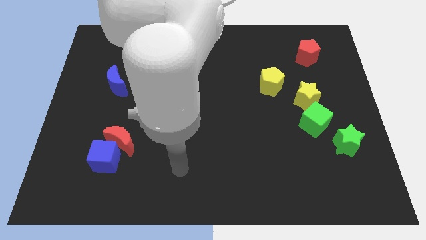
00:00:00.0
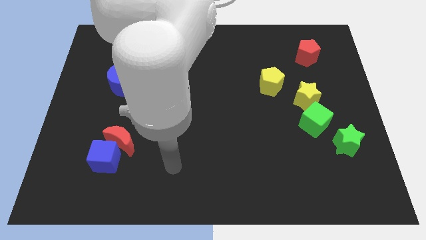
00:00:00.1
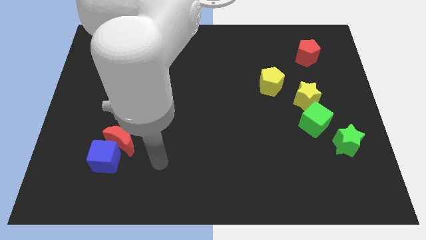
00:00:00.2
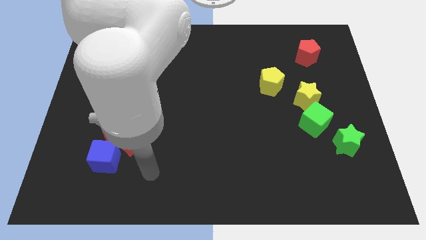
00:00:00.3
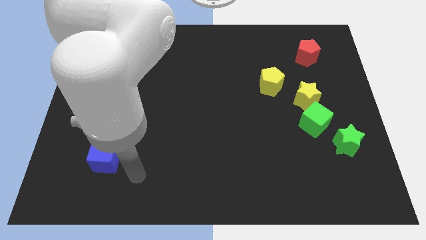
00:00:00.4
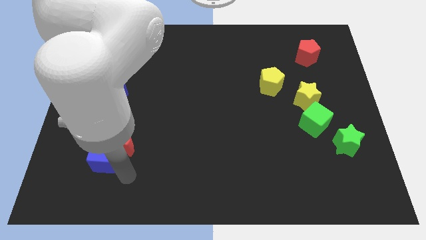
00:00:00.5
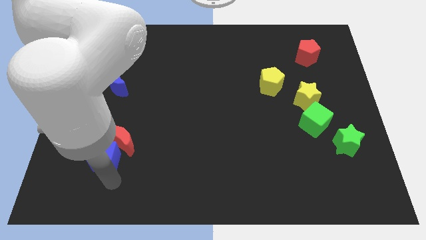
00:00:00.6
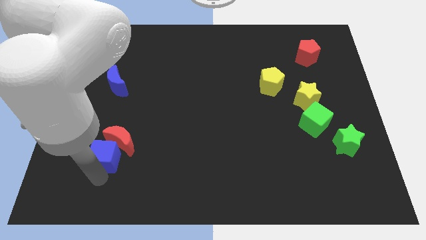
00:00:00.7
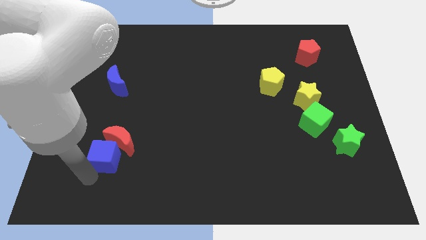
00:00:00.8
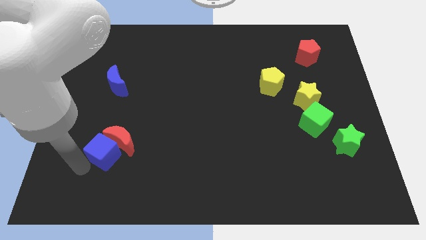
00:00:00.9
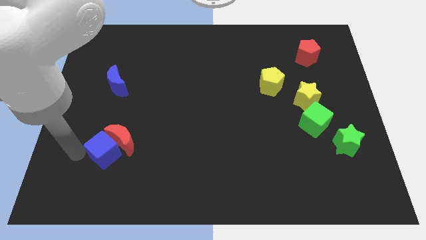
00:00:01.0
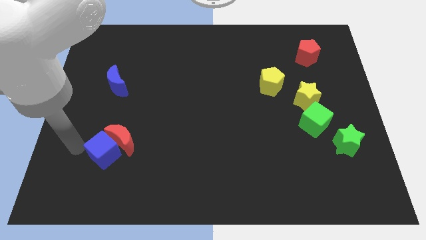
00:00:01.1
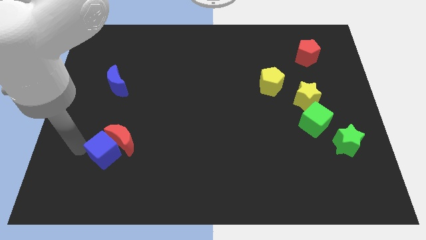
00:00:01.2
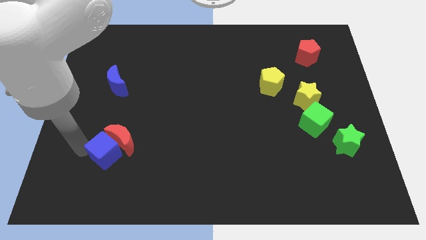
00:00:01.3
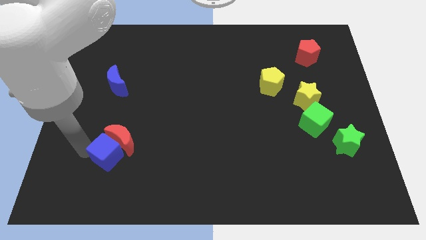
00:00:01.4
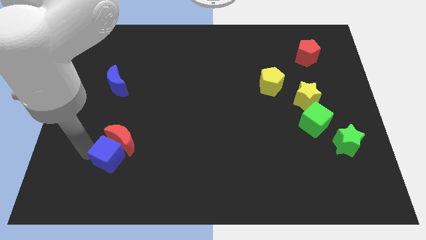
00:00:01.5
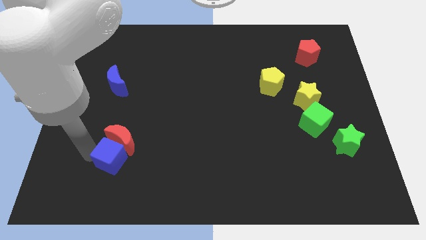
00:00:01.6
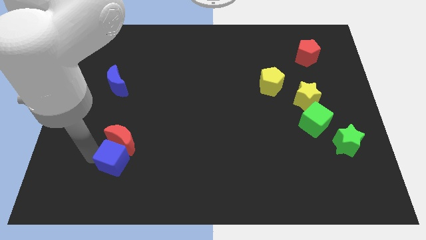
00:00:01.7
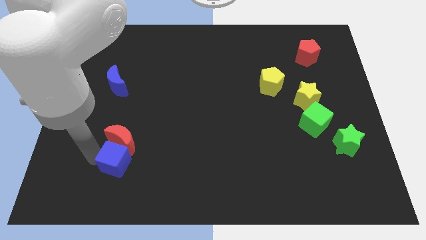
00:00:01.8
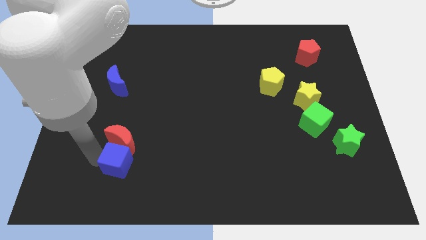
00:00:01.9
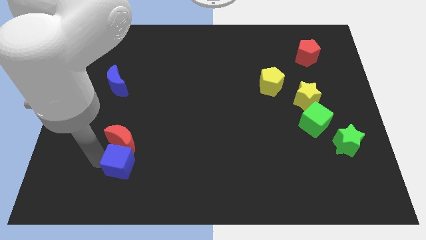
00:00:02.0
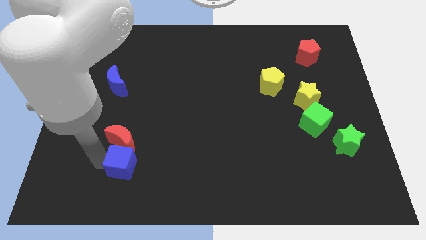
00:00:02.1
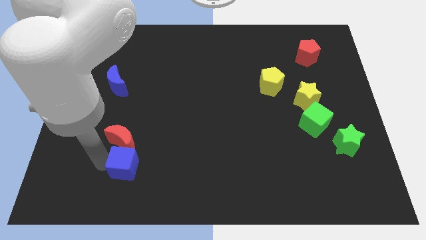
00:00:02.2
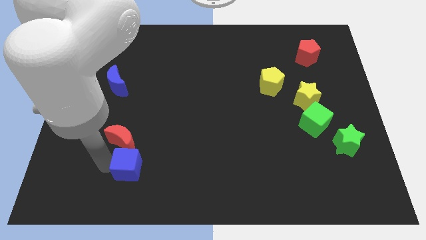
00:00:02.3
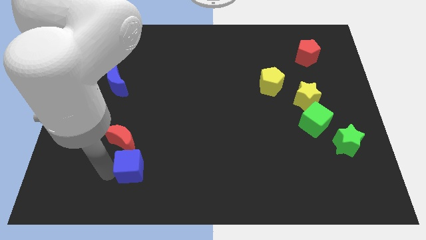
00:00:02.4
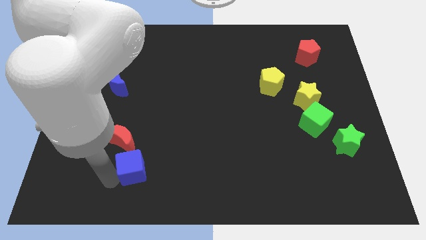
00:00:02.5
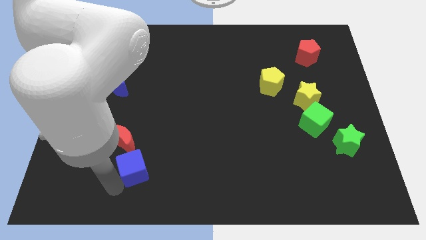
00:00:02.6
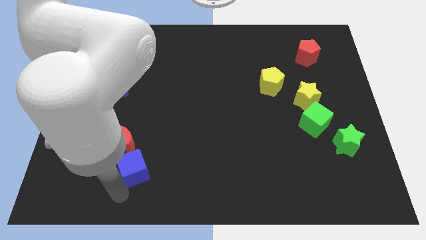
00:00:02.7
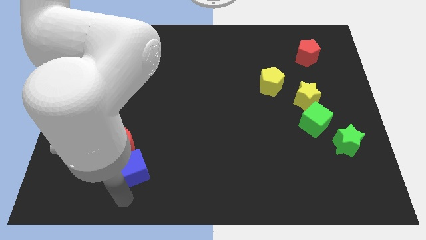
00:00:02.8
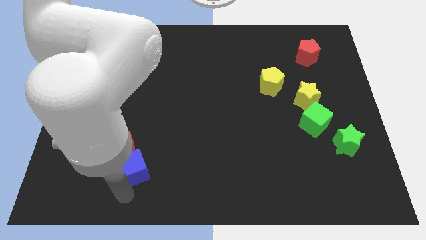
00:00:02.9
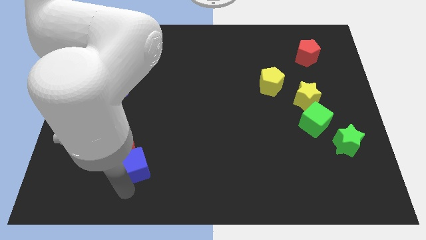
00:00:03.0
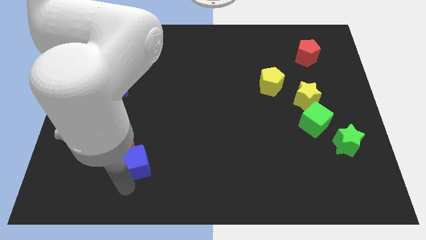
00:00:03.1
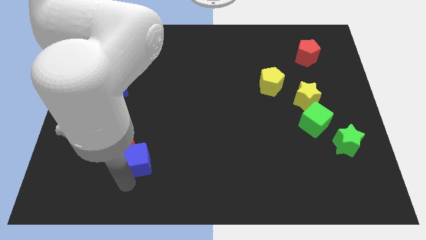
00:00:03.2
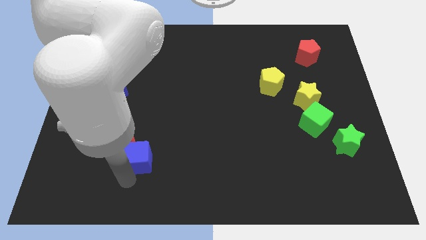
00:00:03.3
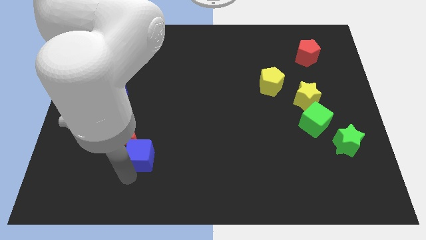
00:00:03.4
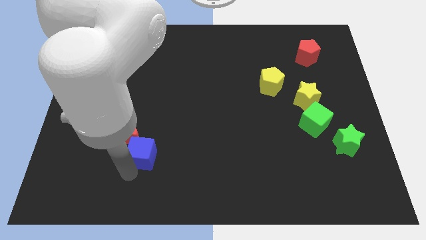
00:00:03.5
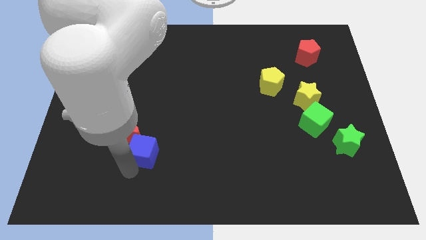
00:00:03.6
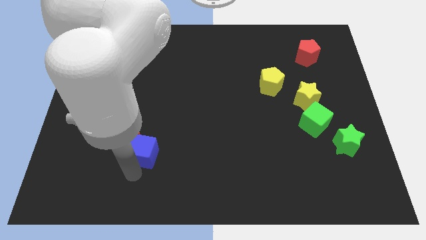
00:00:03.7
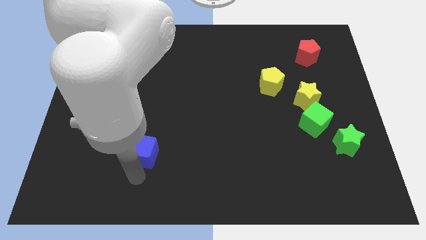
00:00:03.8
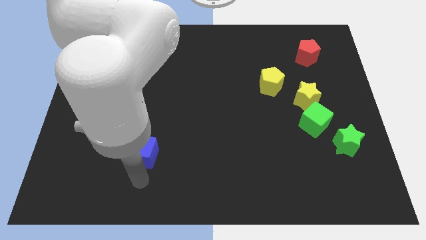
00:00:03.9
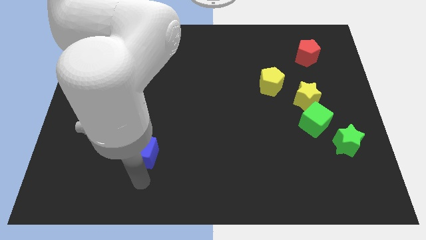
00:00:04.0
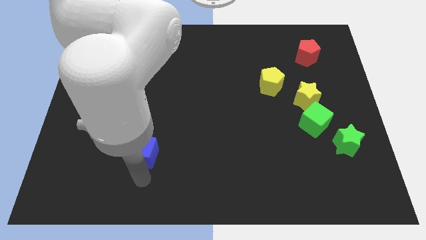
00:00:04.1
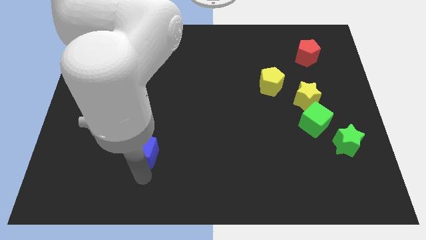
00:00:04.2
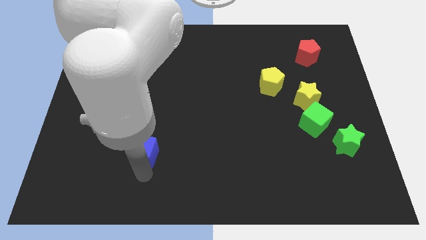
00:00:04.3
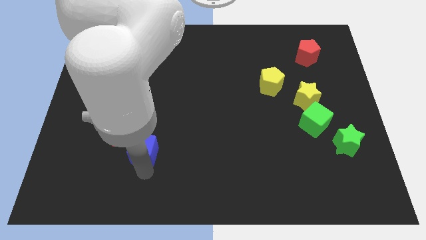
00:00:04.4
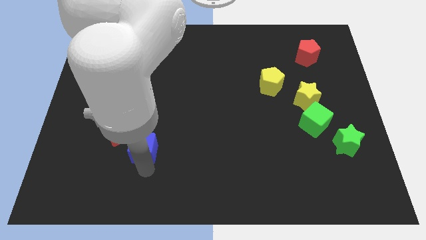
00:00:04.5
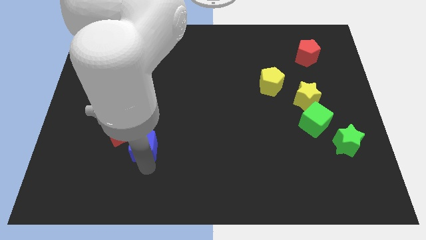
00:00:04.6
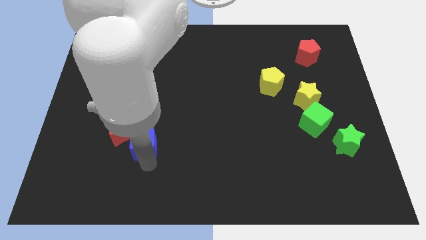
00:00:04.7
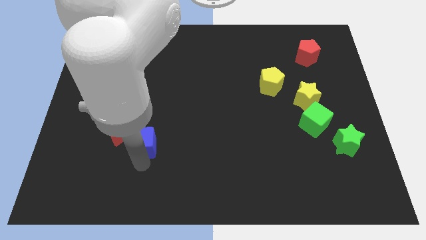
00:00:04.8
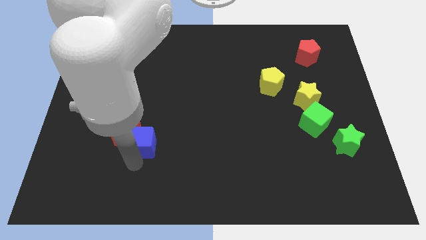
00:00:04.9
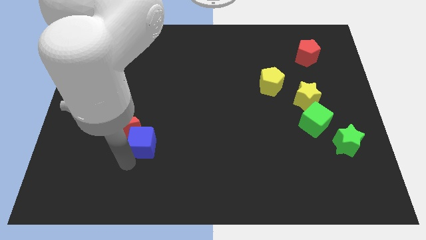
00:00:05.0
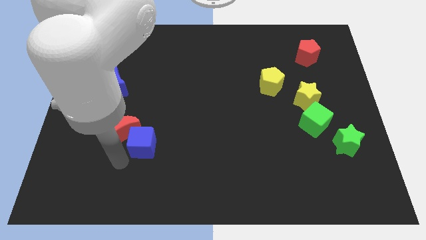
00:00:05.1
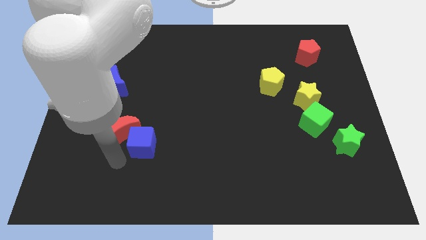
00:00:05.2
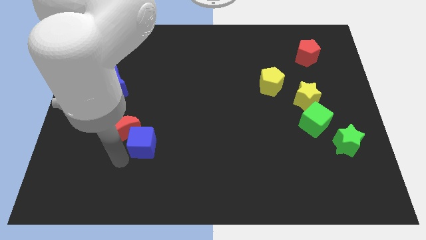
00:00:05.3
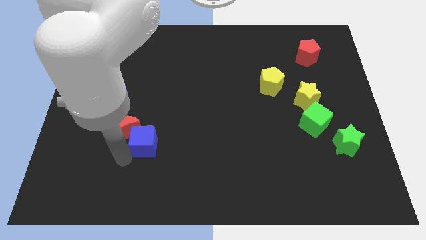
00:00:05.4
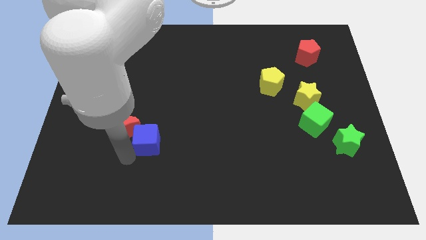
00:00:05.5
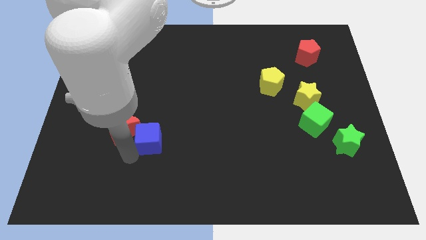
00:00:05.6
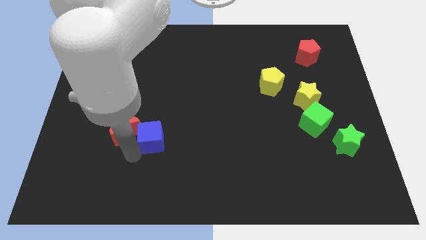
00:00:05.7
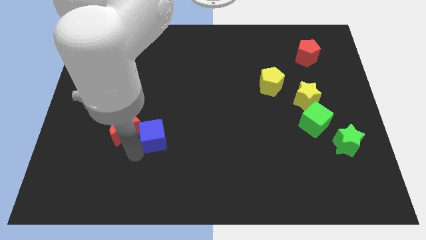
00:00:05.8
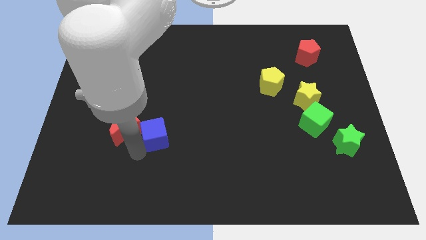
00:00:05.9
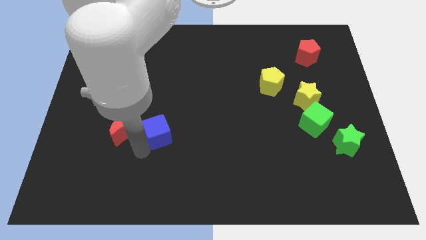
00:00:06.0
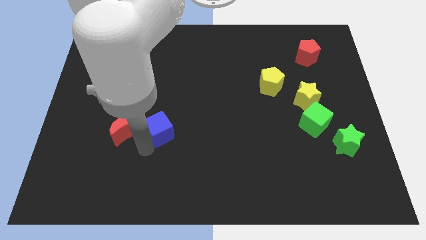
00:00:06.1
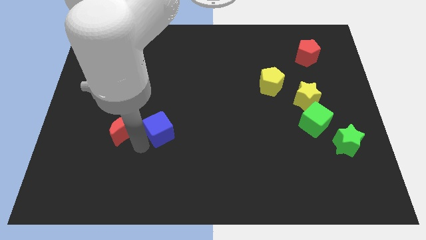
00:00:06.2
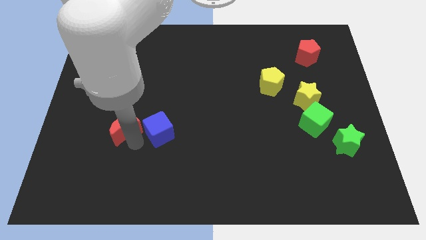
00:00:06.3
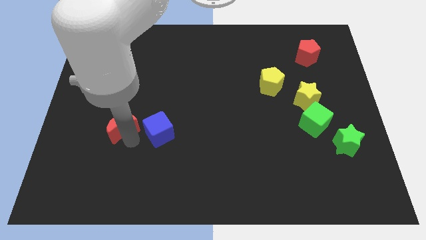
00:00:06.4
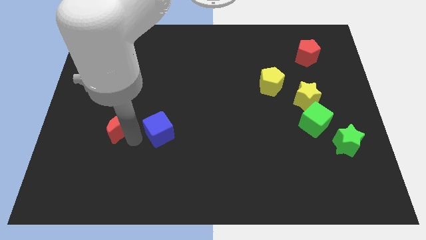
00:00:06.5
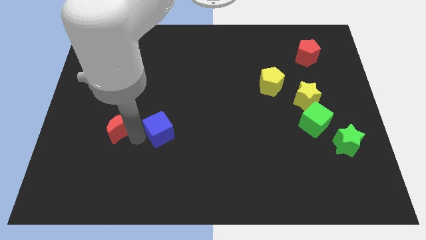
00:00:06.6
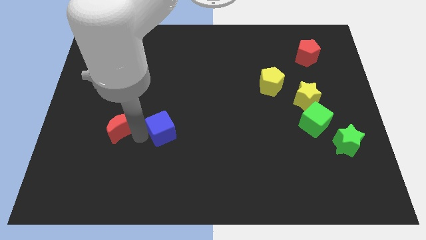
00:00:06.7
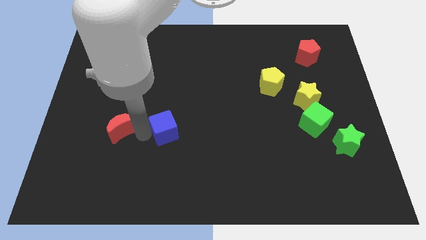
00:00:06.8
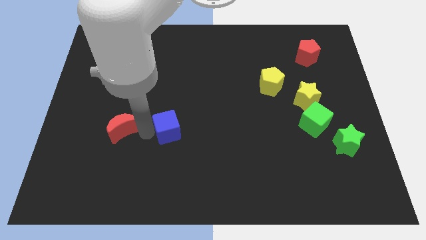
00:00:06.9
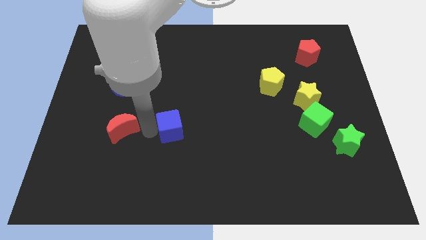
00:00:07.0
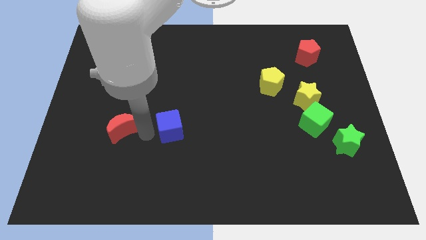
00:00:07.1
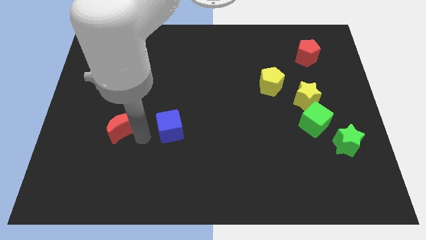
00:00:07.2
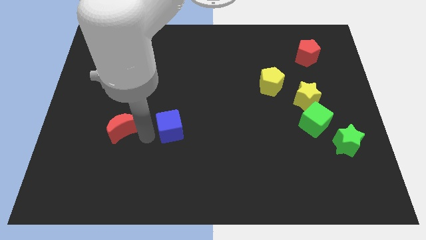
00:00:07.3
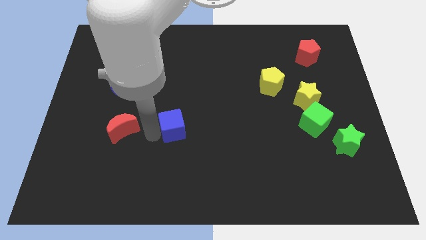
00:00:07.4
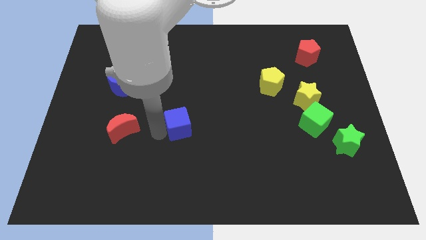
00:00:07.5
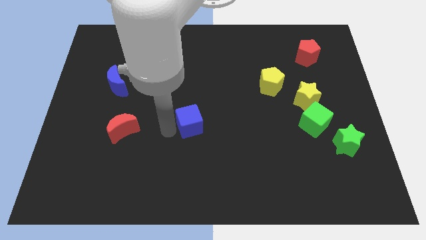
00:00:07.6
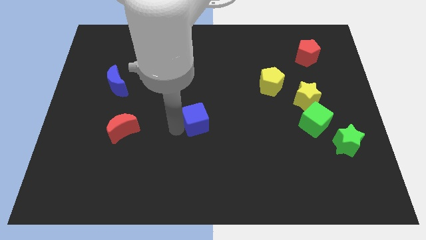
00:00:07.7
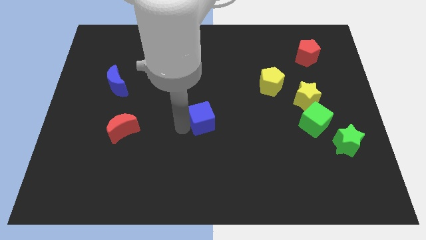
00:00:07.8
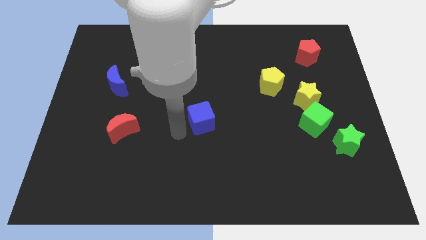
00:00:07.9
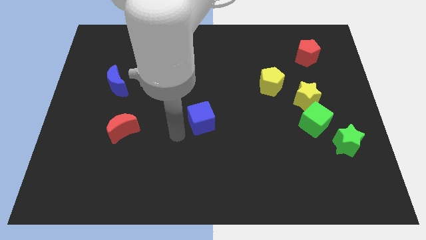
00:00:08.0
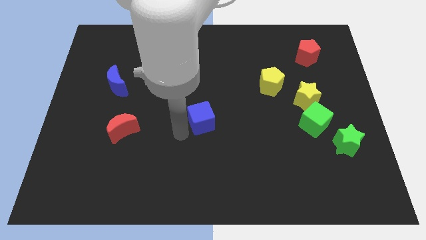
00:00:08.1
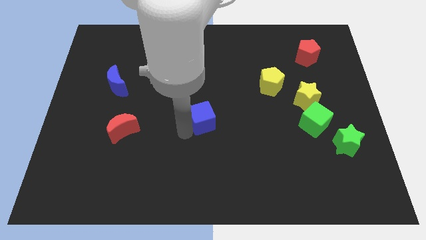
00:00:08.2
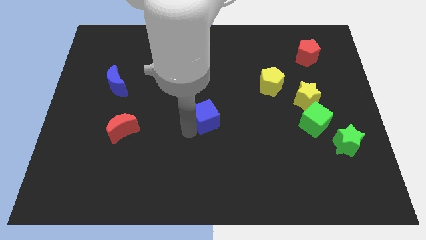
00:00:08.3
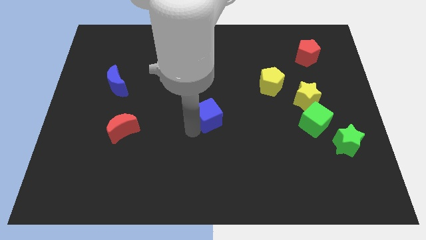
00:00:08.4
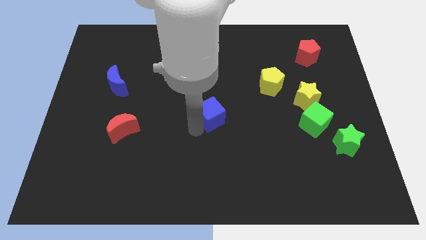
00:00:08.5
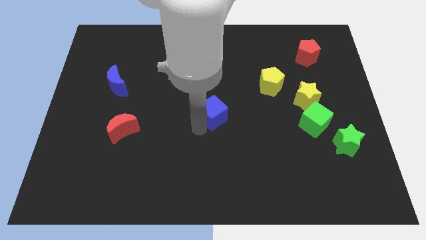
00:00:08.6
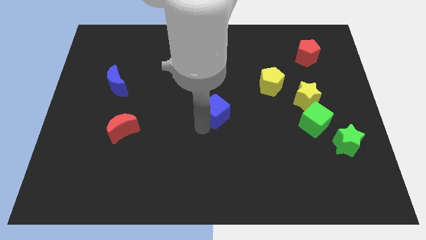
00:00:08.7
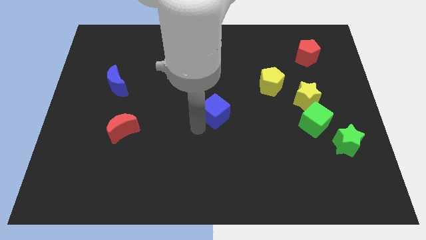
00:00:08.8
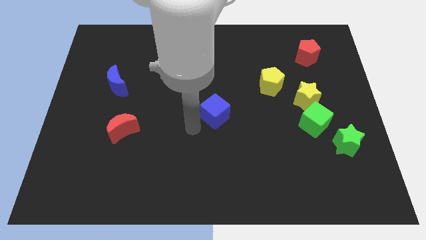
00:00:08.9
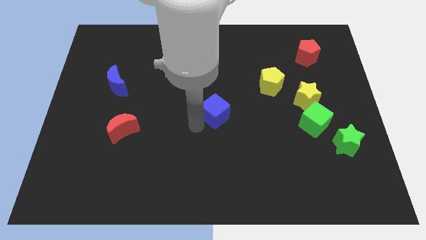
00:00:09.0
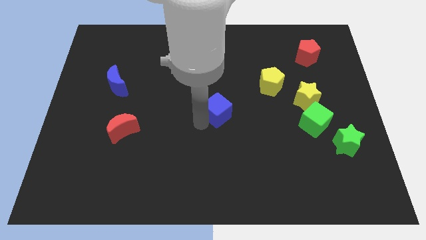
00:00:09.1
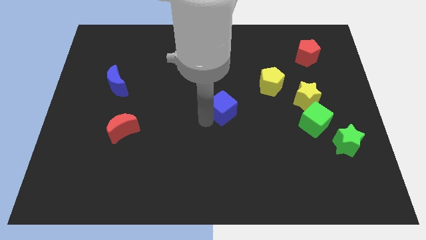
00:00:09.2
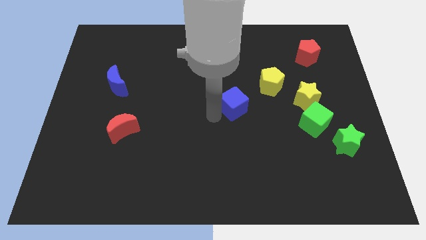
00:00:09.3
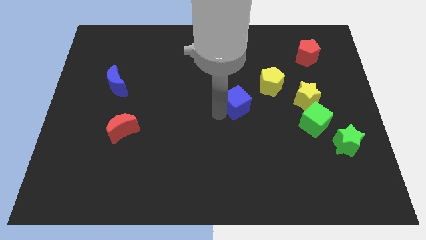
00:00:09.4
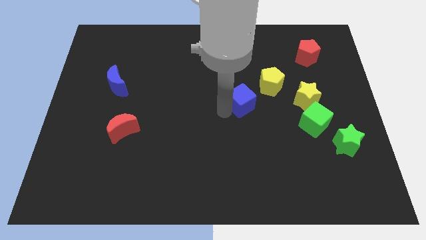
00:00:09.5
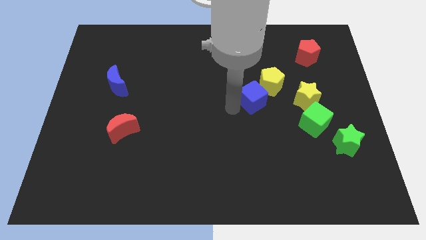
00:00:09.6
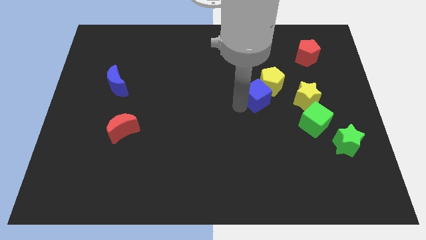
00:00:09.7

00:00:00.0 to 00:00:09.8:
push the blue cube next to the yellow pentagon
